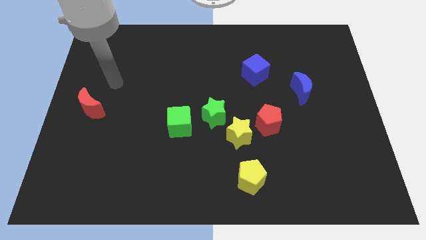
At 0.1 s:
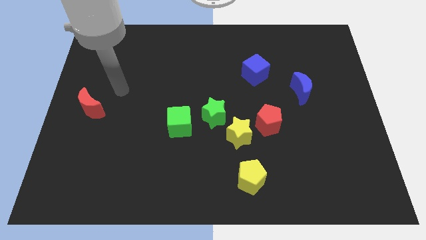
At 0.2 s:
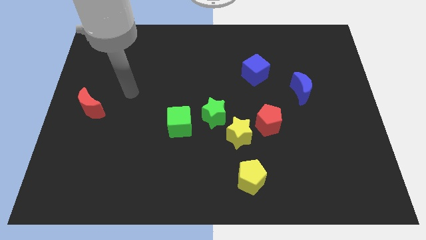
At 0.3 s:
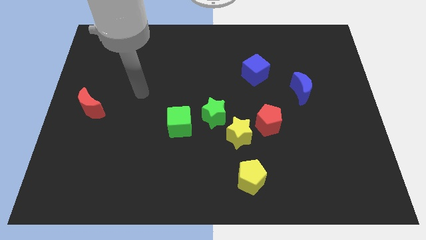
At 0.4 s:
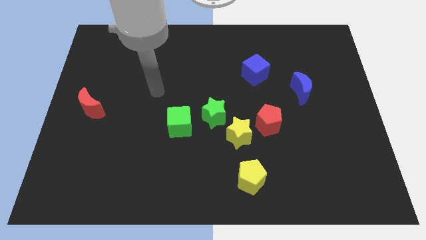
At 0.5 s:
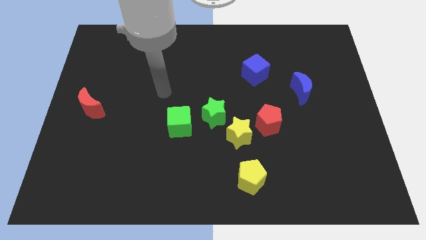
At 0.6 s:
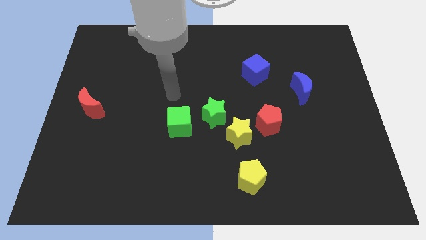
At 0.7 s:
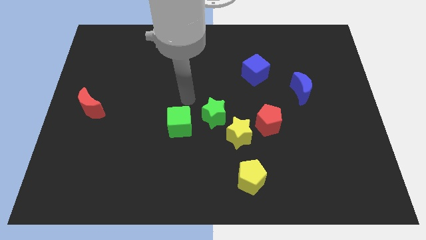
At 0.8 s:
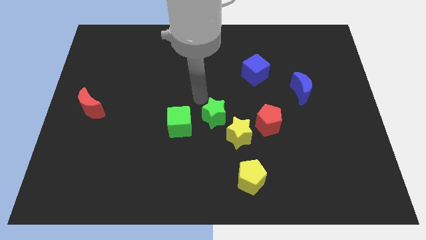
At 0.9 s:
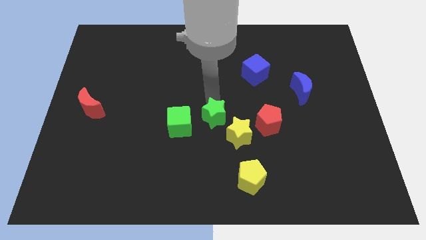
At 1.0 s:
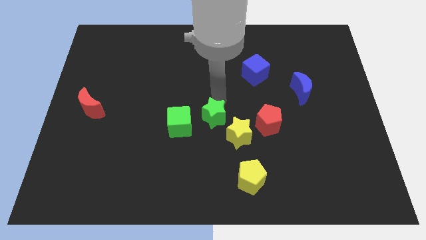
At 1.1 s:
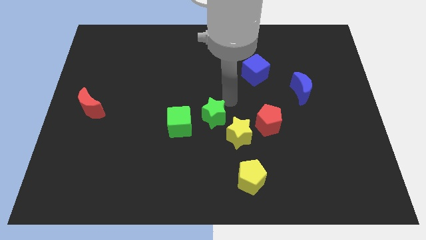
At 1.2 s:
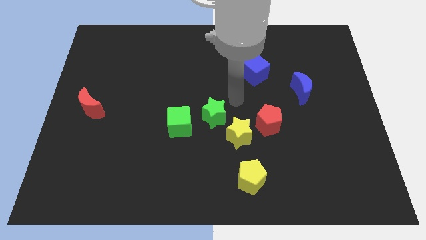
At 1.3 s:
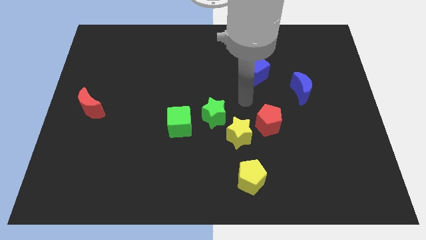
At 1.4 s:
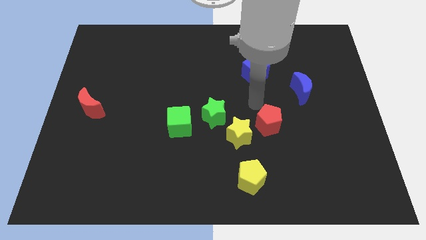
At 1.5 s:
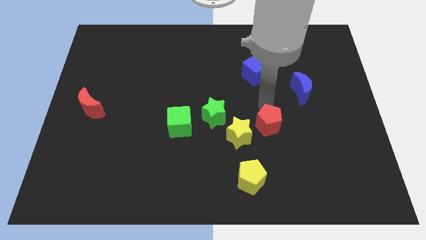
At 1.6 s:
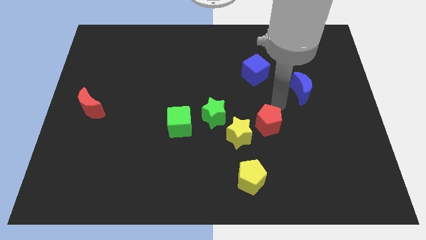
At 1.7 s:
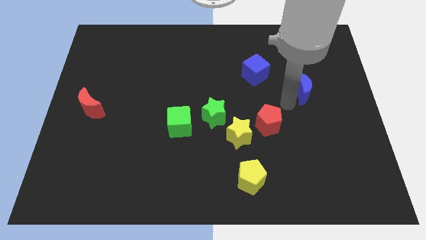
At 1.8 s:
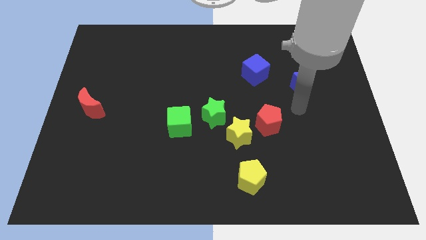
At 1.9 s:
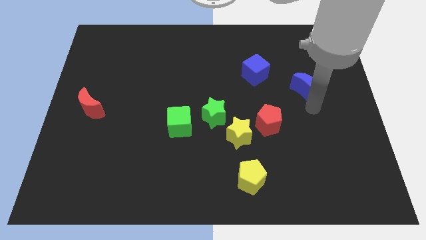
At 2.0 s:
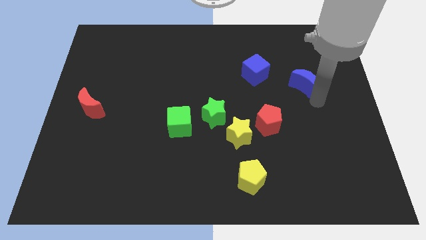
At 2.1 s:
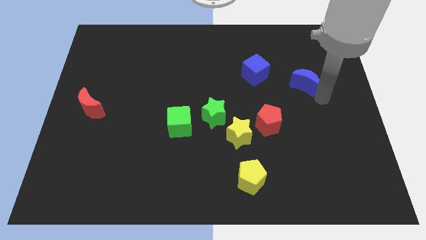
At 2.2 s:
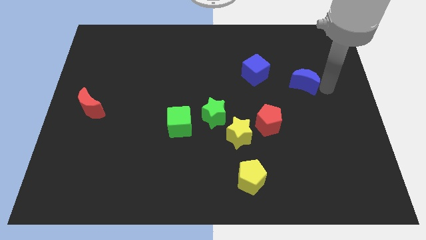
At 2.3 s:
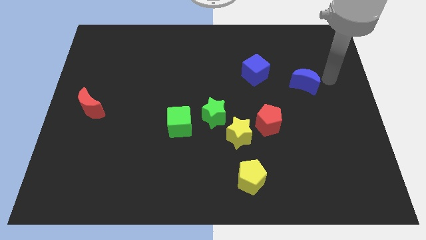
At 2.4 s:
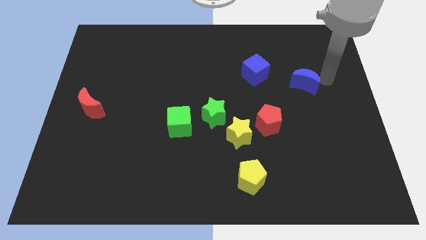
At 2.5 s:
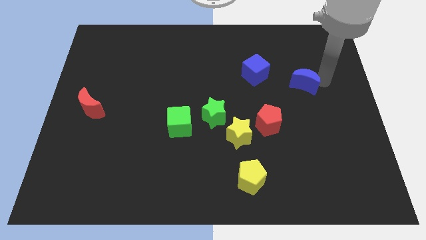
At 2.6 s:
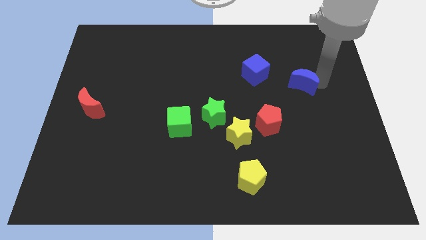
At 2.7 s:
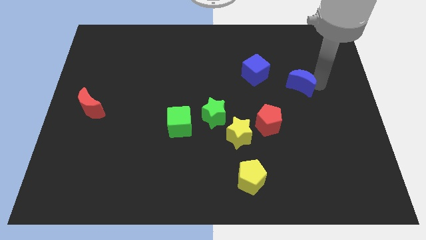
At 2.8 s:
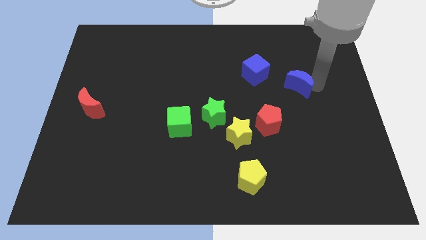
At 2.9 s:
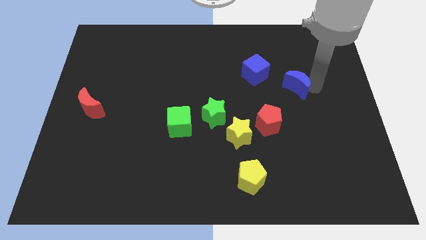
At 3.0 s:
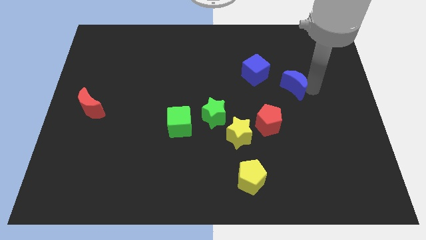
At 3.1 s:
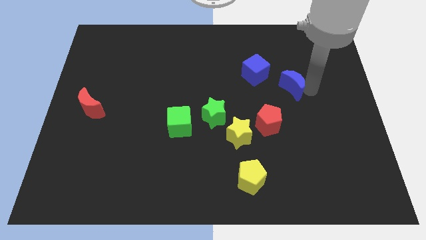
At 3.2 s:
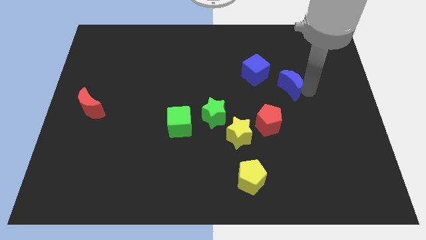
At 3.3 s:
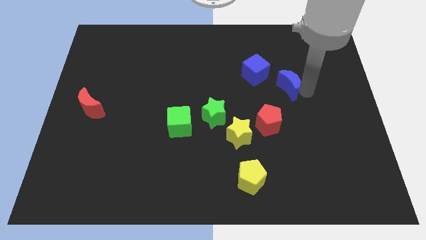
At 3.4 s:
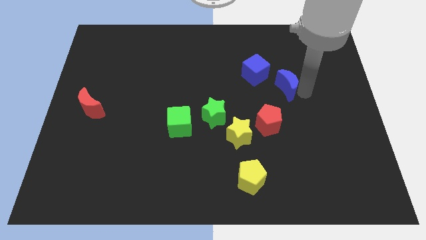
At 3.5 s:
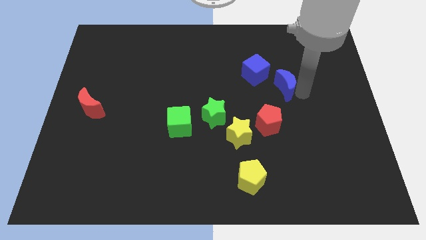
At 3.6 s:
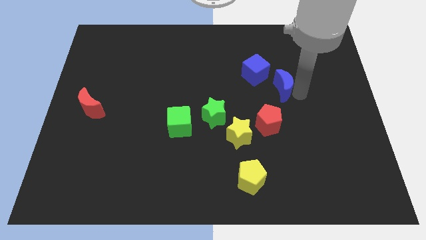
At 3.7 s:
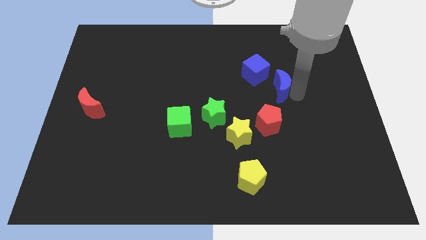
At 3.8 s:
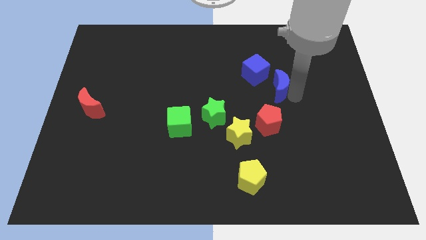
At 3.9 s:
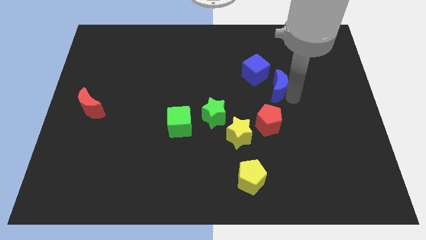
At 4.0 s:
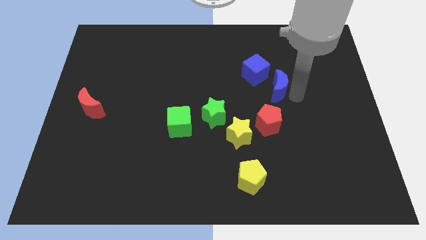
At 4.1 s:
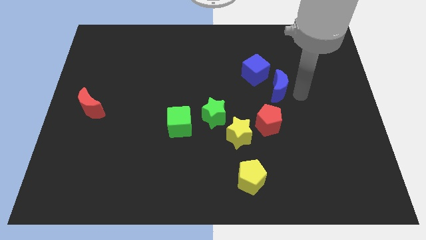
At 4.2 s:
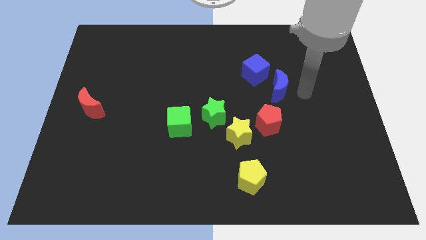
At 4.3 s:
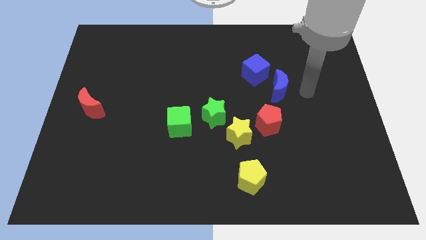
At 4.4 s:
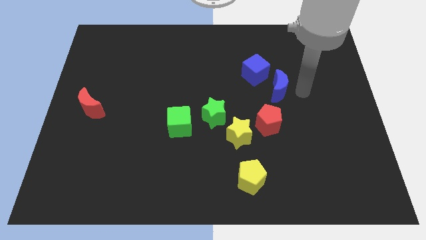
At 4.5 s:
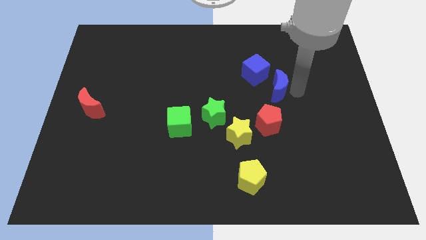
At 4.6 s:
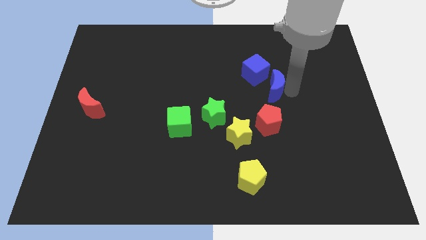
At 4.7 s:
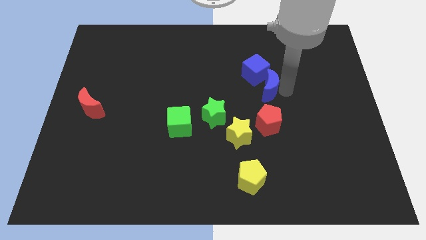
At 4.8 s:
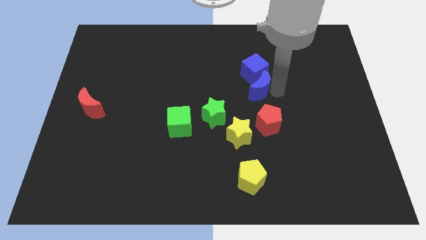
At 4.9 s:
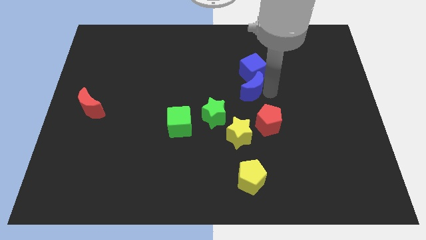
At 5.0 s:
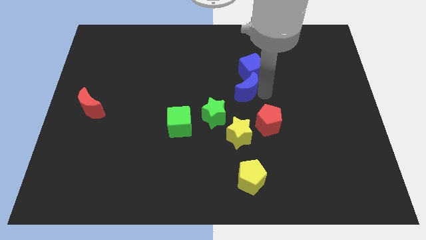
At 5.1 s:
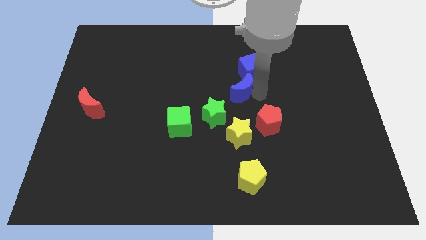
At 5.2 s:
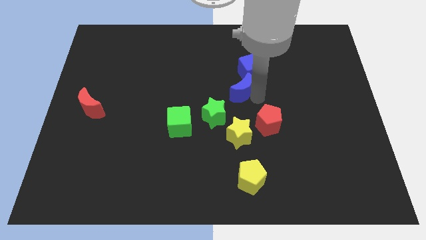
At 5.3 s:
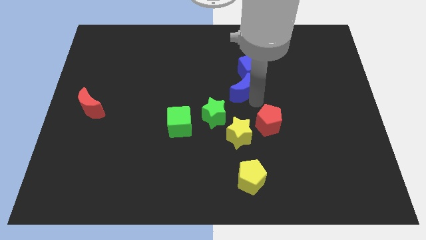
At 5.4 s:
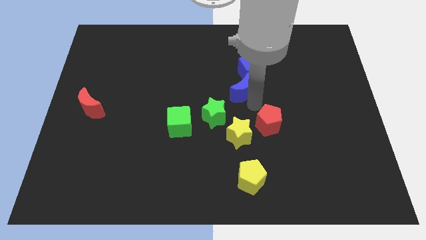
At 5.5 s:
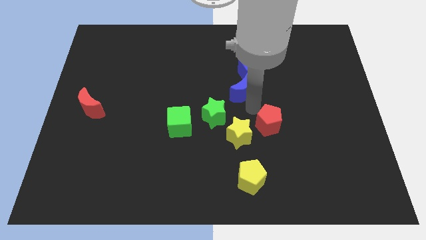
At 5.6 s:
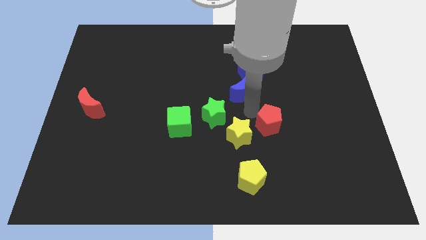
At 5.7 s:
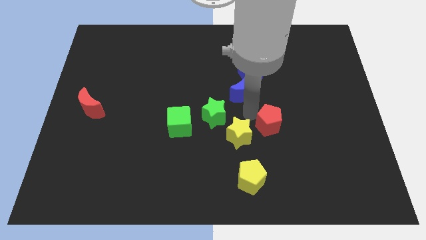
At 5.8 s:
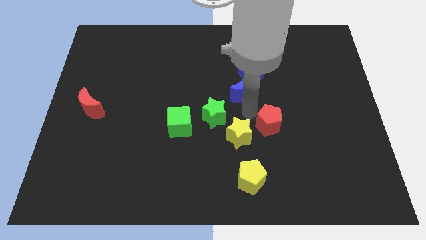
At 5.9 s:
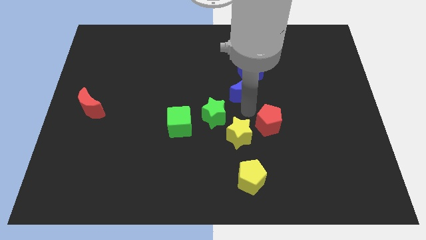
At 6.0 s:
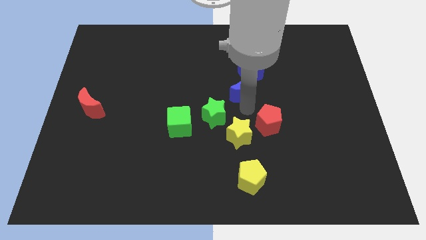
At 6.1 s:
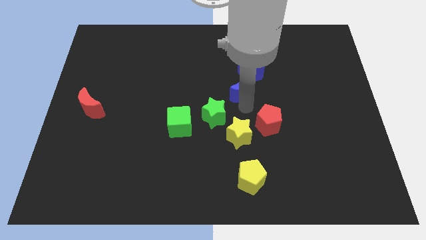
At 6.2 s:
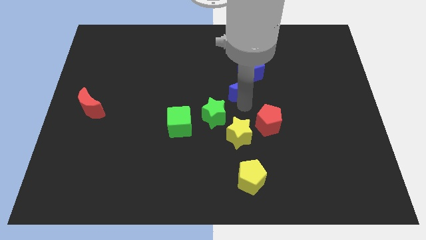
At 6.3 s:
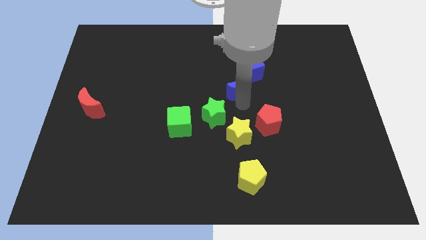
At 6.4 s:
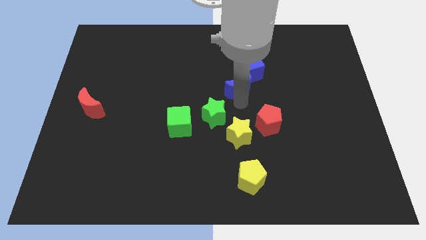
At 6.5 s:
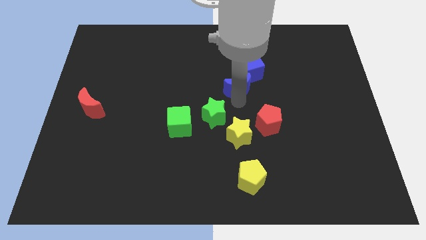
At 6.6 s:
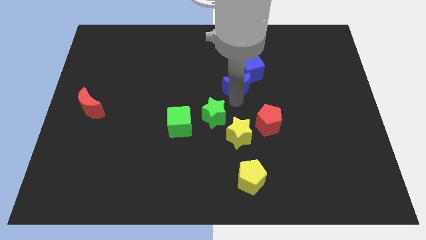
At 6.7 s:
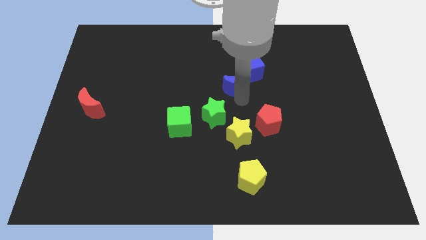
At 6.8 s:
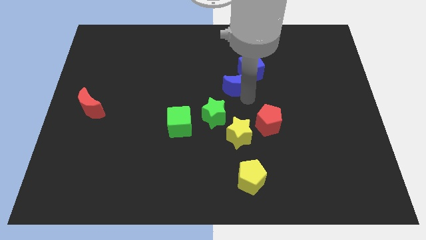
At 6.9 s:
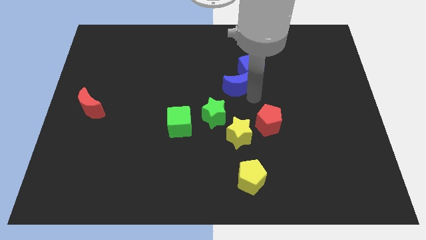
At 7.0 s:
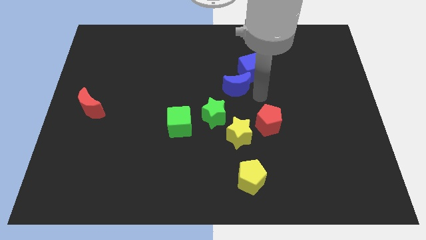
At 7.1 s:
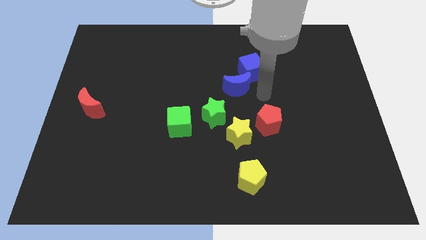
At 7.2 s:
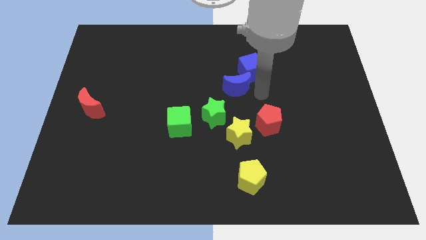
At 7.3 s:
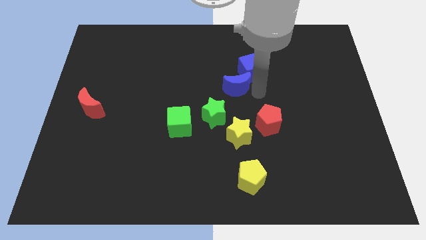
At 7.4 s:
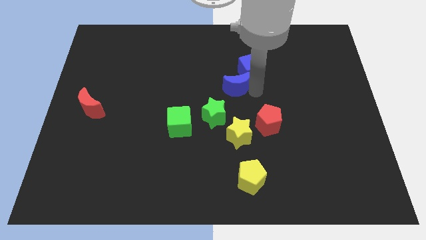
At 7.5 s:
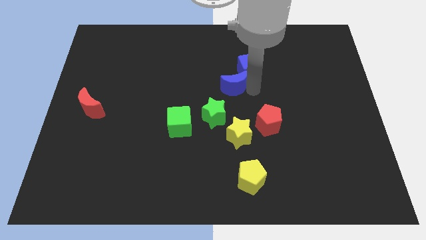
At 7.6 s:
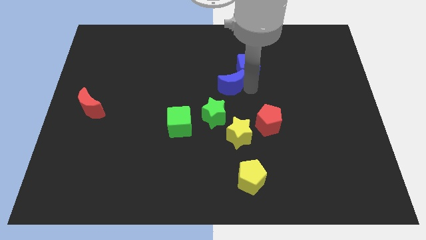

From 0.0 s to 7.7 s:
slide the blue moon to the top of the green star
